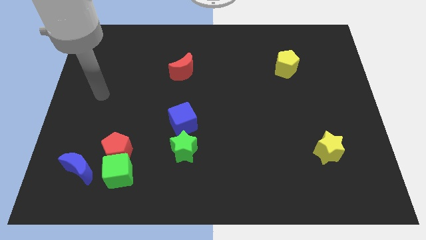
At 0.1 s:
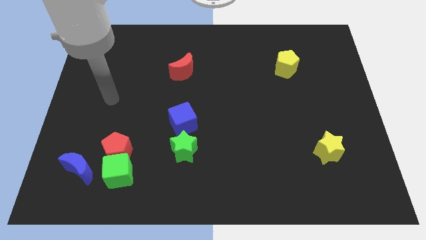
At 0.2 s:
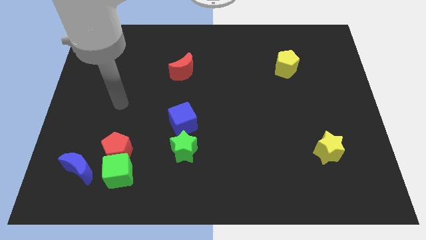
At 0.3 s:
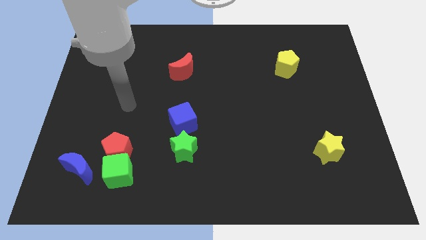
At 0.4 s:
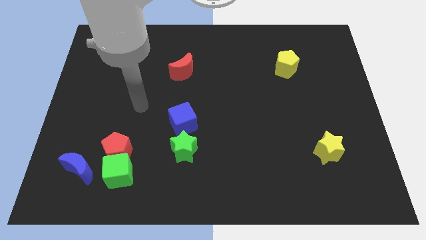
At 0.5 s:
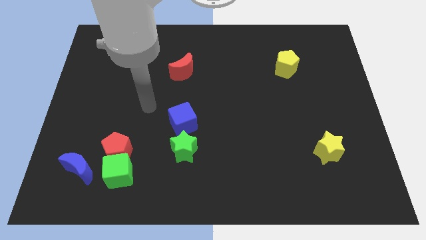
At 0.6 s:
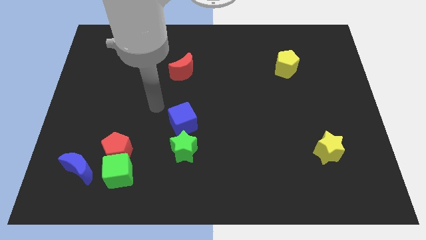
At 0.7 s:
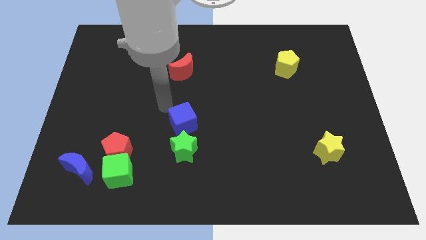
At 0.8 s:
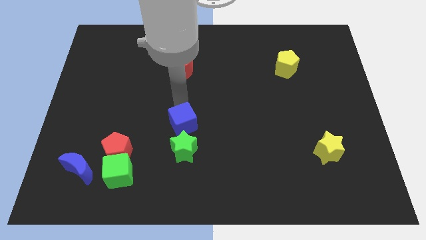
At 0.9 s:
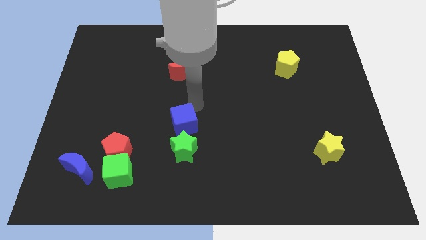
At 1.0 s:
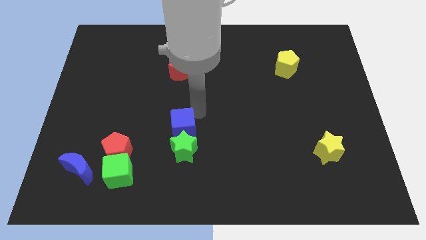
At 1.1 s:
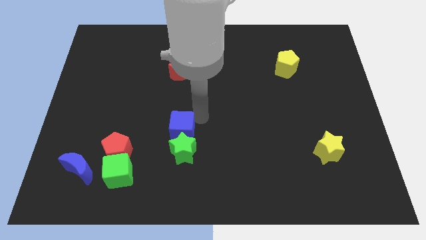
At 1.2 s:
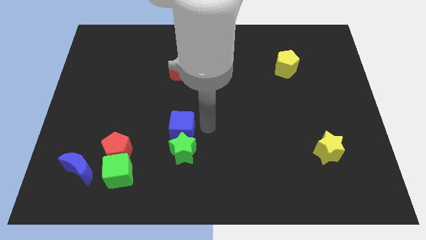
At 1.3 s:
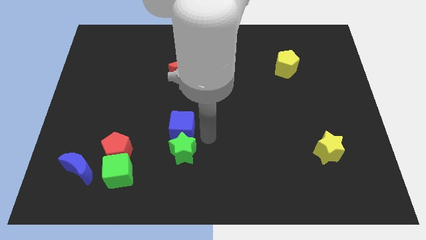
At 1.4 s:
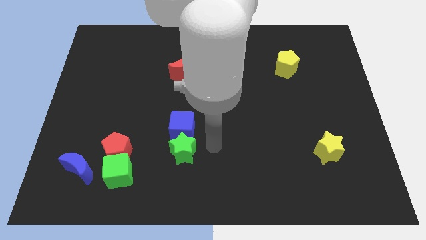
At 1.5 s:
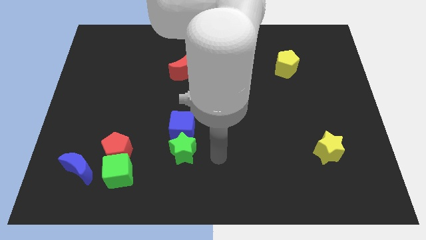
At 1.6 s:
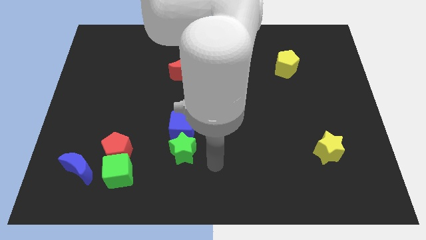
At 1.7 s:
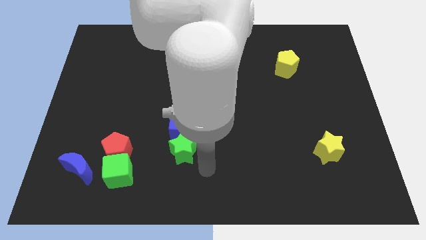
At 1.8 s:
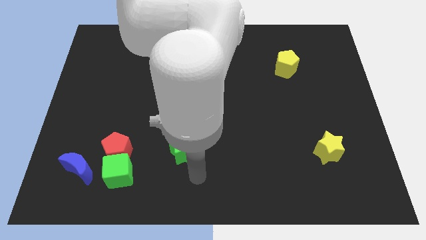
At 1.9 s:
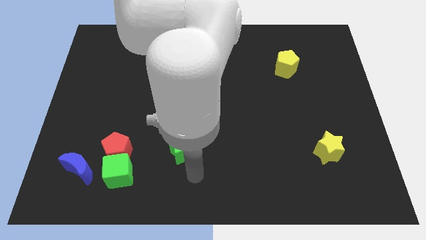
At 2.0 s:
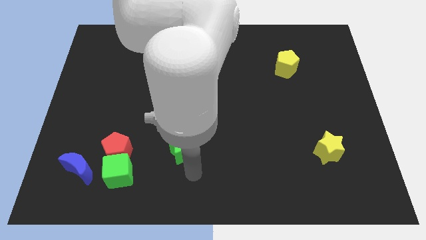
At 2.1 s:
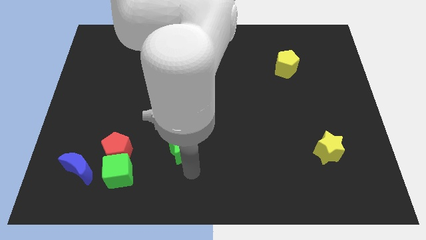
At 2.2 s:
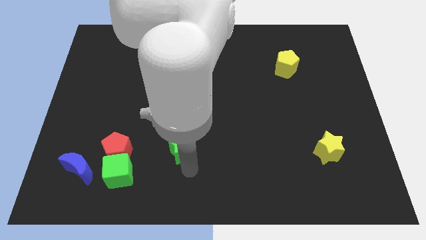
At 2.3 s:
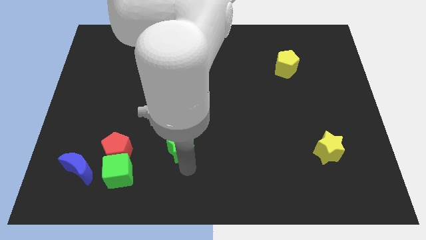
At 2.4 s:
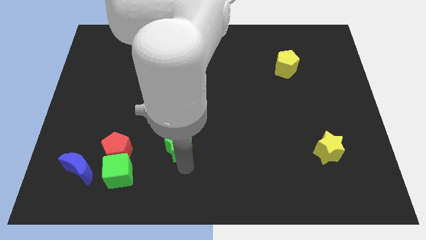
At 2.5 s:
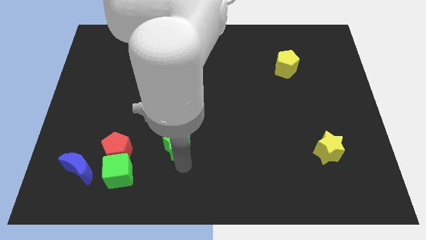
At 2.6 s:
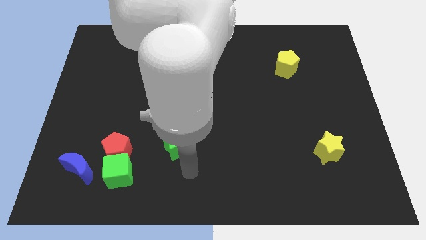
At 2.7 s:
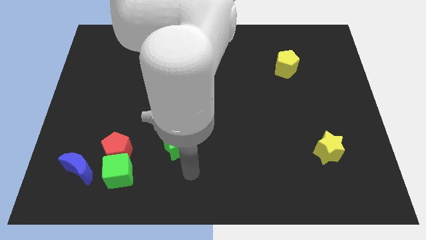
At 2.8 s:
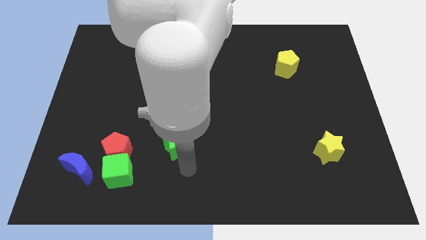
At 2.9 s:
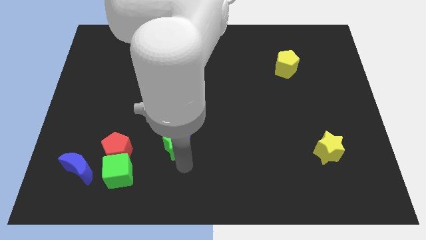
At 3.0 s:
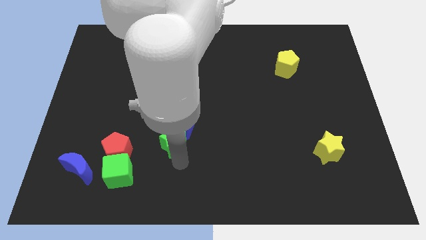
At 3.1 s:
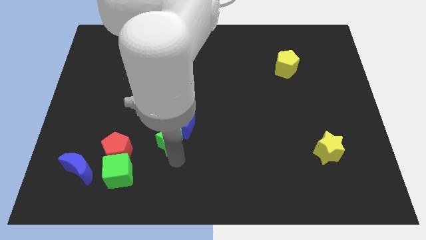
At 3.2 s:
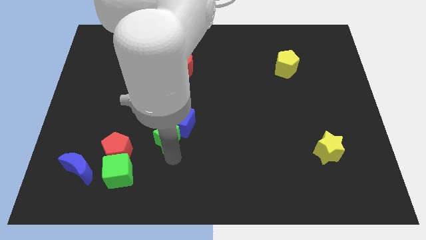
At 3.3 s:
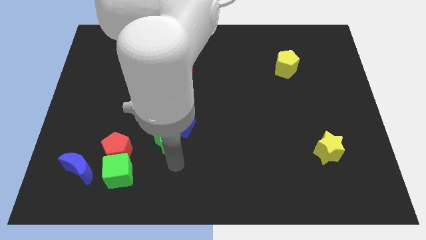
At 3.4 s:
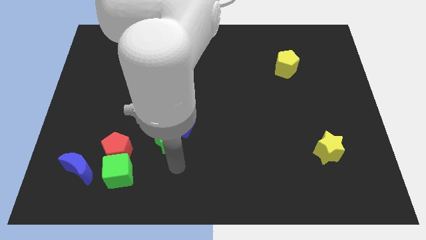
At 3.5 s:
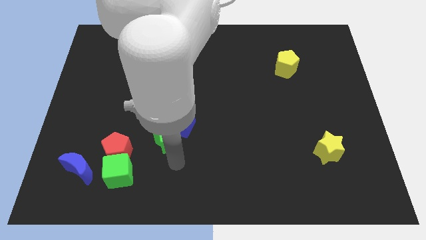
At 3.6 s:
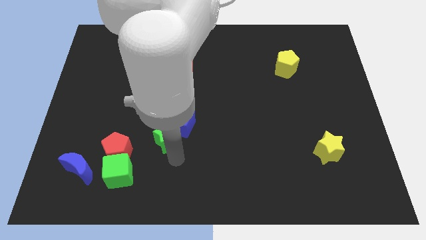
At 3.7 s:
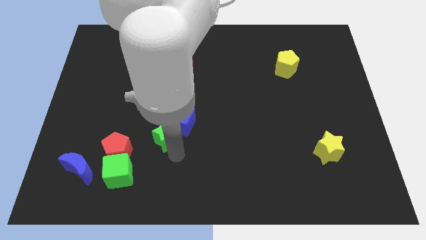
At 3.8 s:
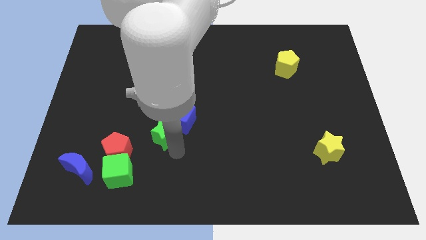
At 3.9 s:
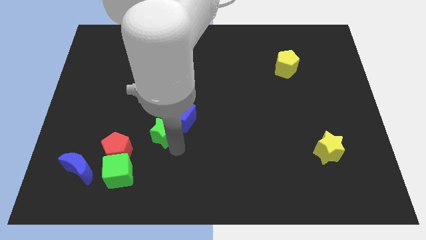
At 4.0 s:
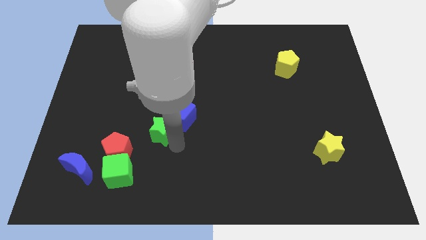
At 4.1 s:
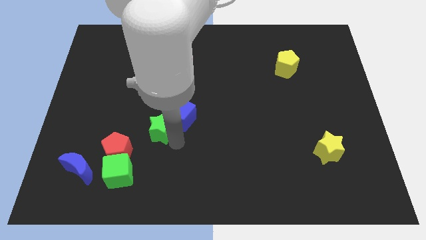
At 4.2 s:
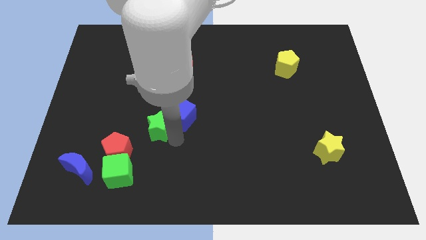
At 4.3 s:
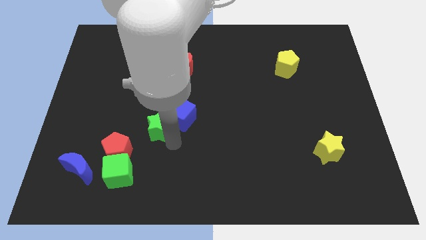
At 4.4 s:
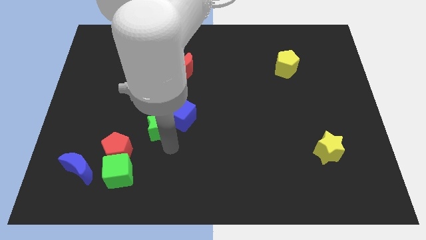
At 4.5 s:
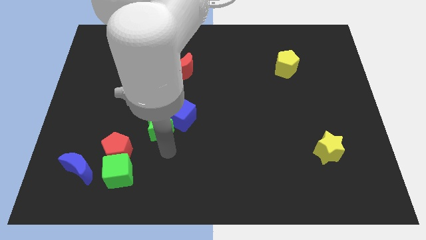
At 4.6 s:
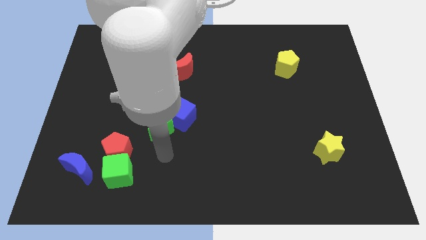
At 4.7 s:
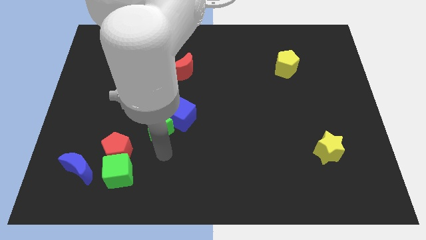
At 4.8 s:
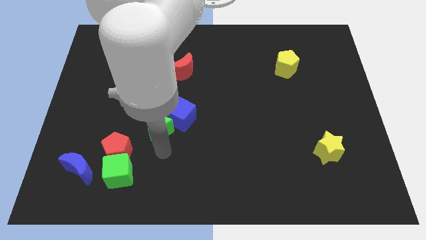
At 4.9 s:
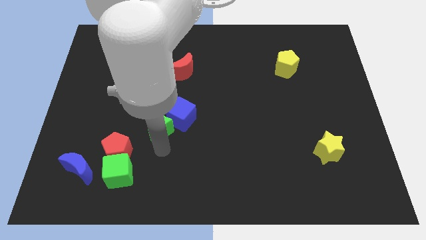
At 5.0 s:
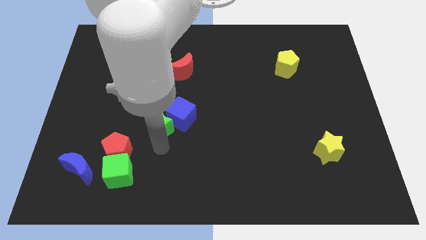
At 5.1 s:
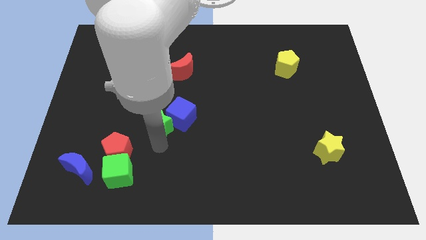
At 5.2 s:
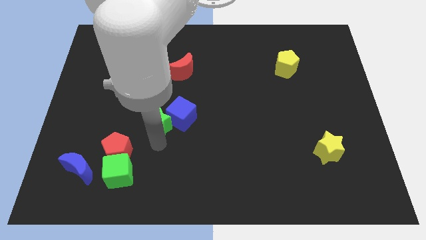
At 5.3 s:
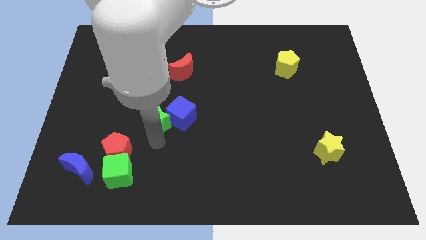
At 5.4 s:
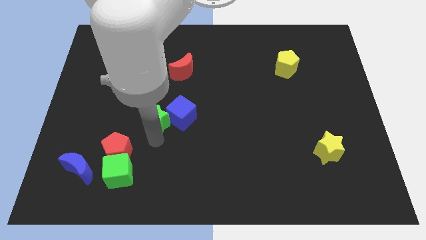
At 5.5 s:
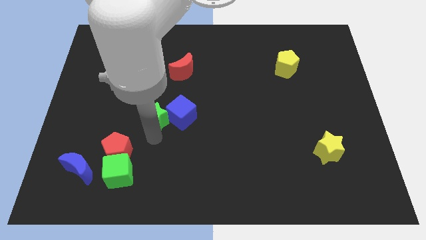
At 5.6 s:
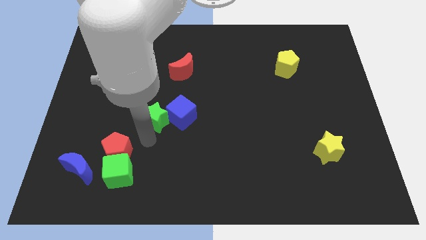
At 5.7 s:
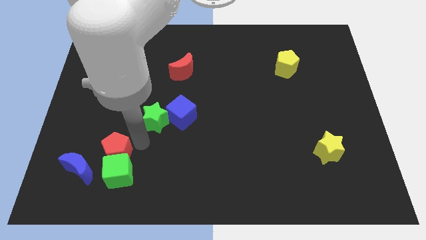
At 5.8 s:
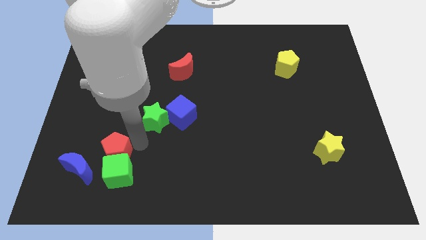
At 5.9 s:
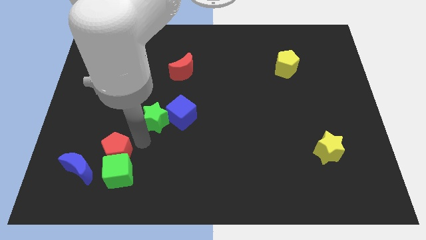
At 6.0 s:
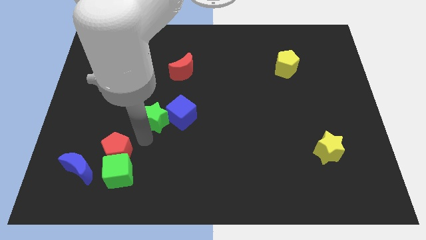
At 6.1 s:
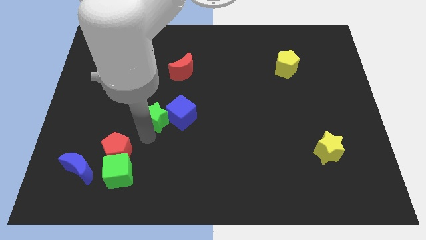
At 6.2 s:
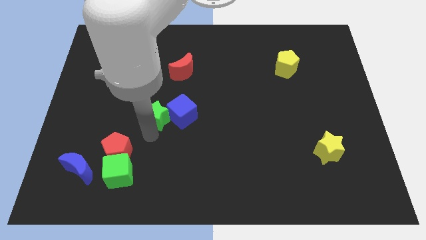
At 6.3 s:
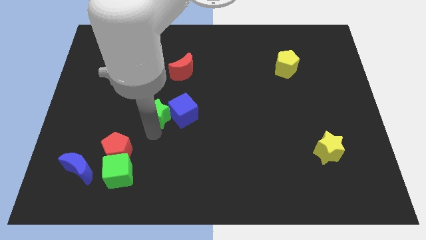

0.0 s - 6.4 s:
slightly move the green star upwards

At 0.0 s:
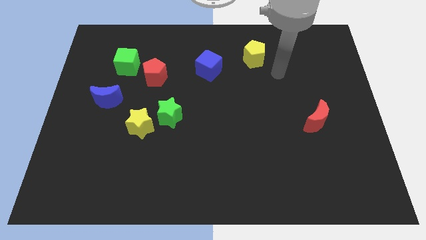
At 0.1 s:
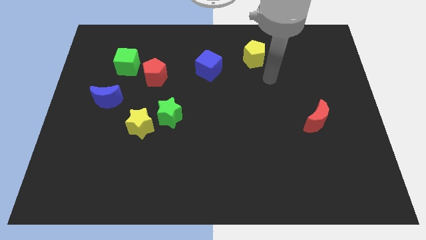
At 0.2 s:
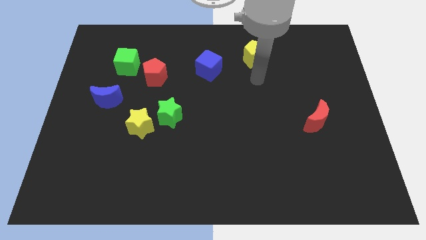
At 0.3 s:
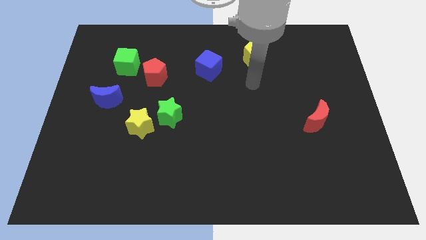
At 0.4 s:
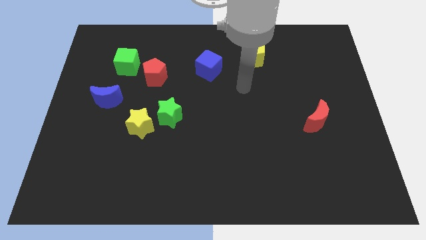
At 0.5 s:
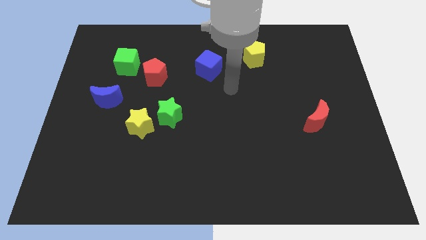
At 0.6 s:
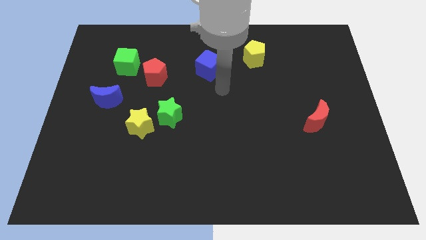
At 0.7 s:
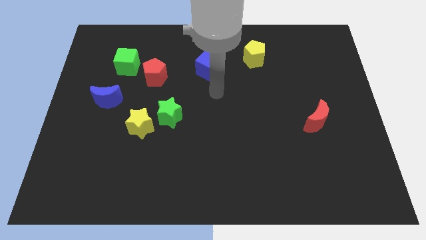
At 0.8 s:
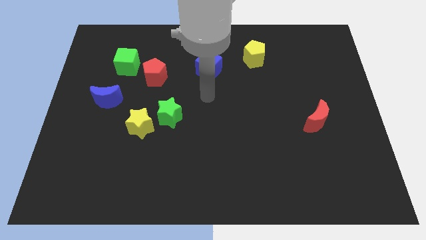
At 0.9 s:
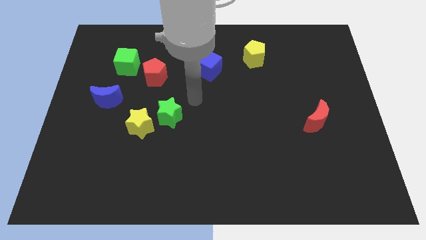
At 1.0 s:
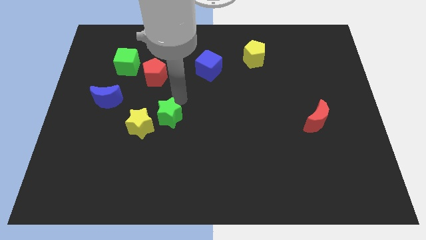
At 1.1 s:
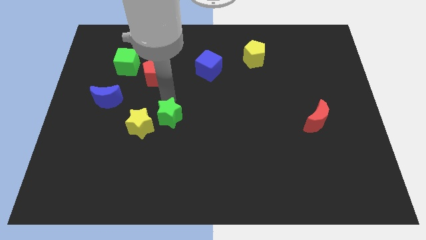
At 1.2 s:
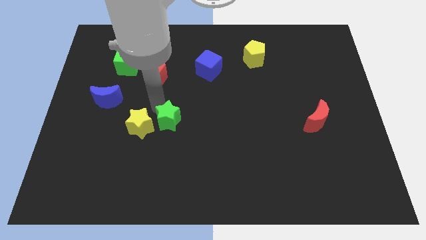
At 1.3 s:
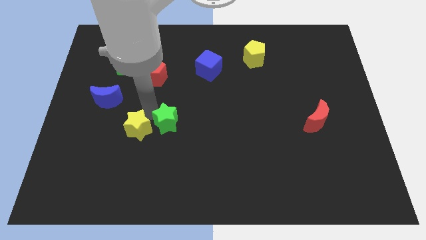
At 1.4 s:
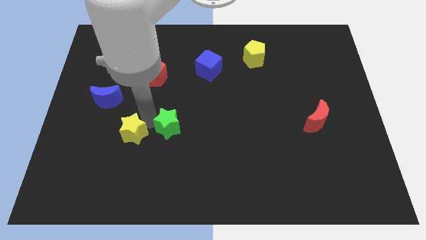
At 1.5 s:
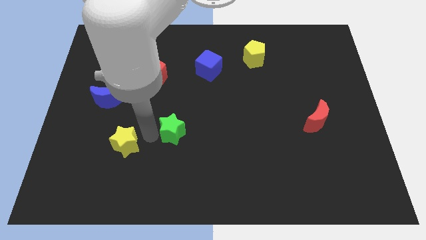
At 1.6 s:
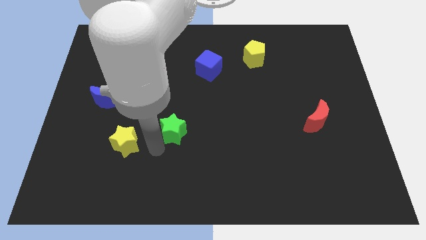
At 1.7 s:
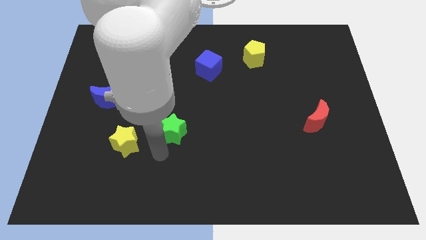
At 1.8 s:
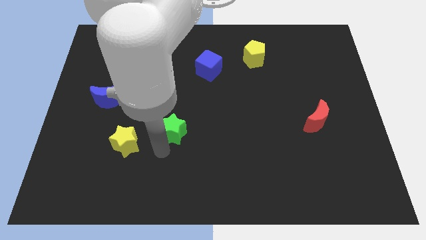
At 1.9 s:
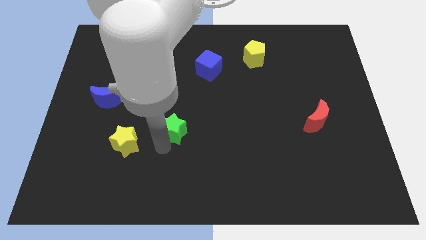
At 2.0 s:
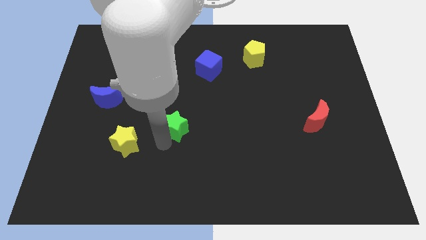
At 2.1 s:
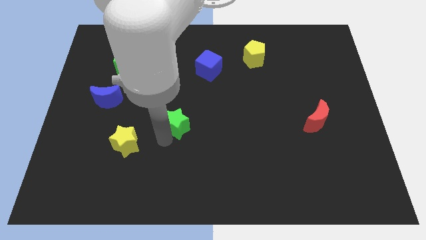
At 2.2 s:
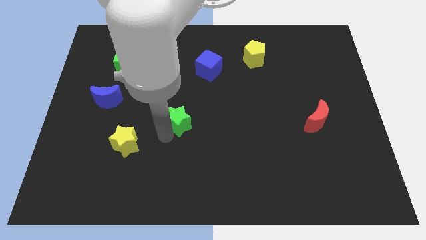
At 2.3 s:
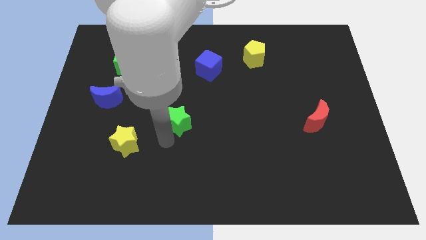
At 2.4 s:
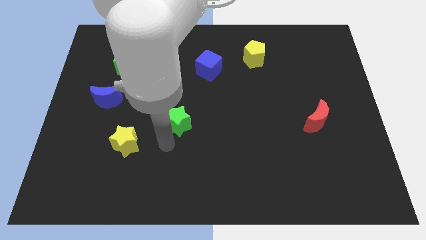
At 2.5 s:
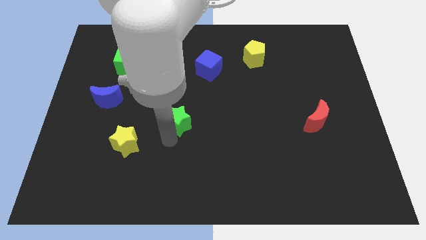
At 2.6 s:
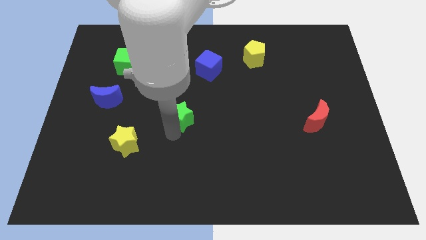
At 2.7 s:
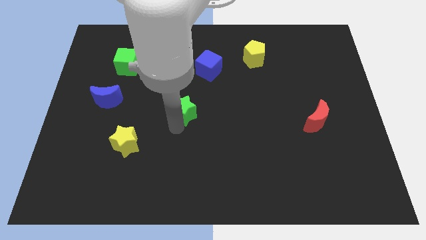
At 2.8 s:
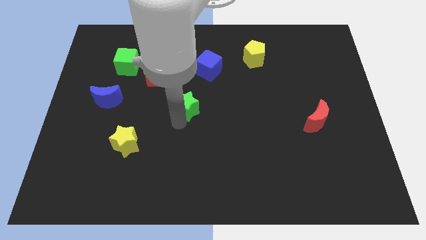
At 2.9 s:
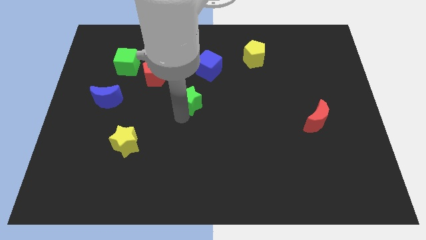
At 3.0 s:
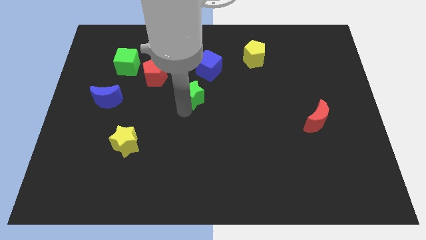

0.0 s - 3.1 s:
slightly slide the green star upwards and then to the right
